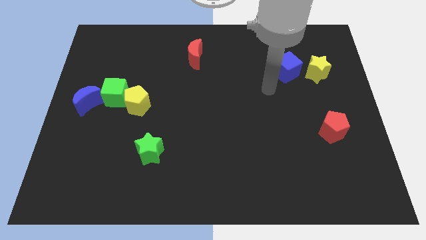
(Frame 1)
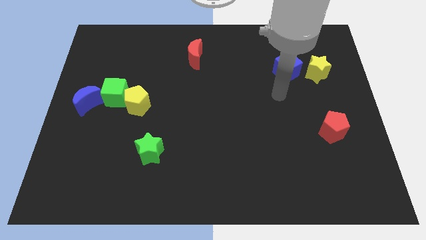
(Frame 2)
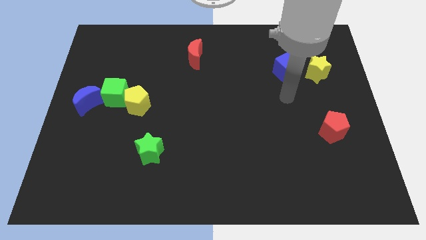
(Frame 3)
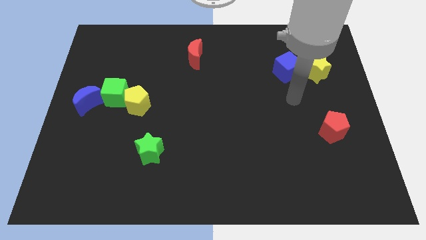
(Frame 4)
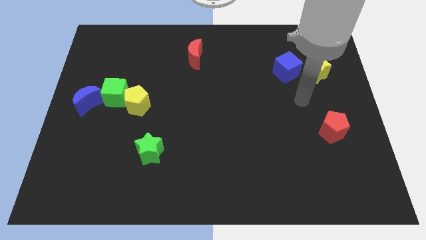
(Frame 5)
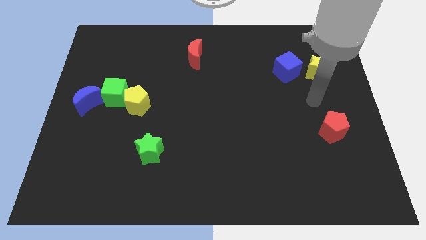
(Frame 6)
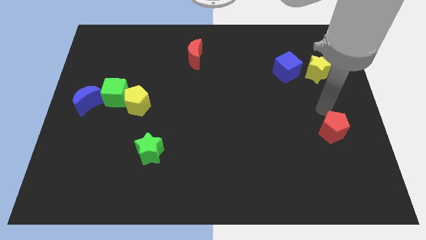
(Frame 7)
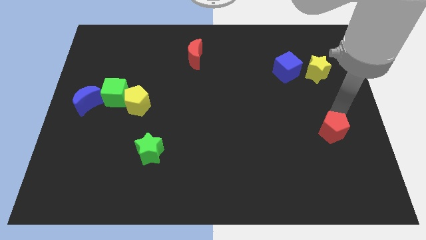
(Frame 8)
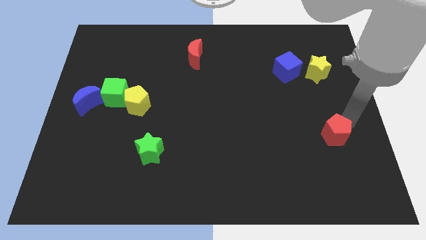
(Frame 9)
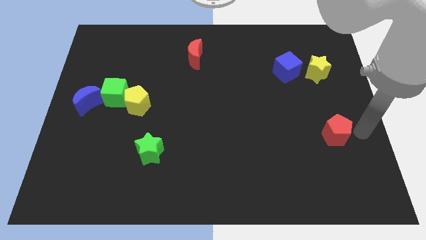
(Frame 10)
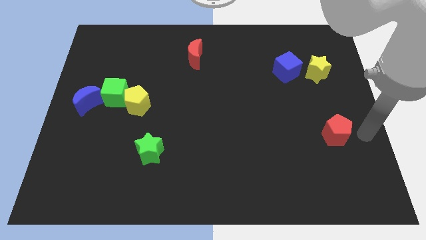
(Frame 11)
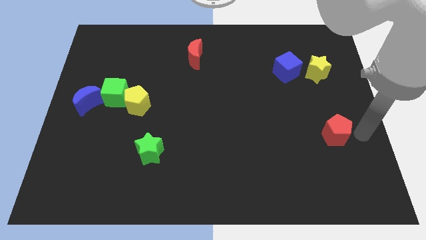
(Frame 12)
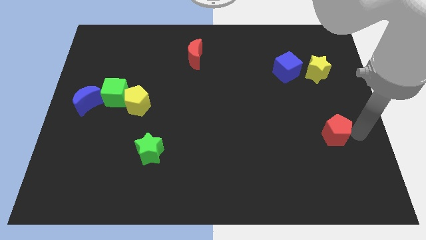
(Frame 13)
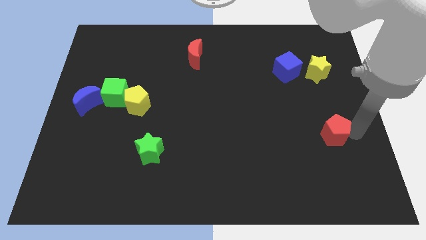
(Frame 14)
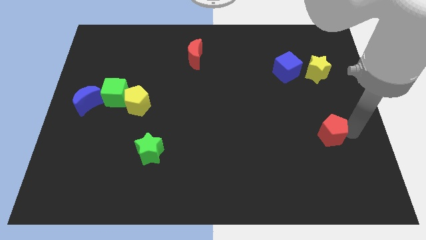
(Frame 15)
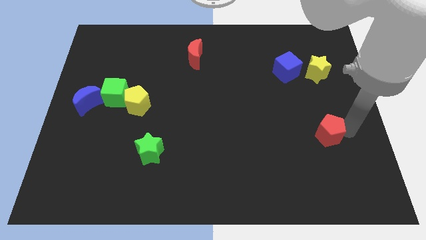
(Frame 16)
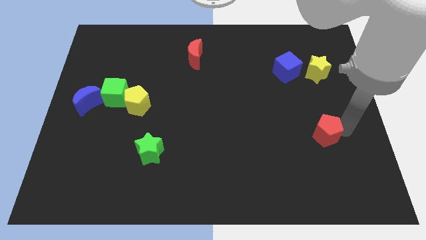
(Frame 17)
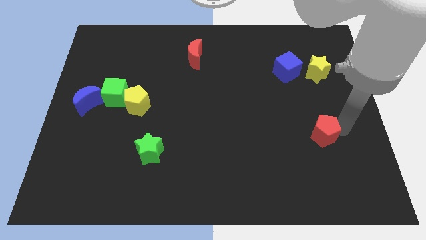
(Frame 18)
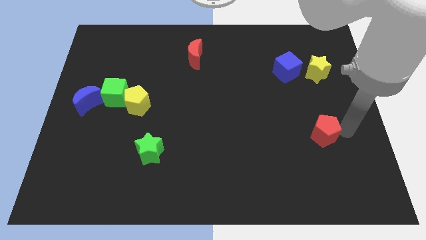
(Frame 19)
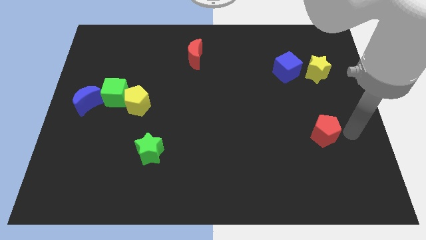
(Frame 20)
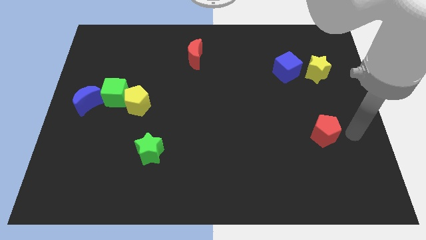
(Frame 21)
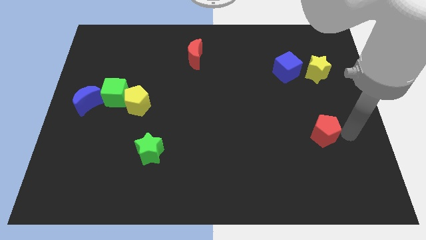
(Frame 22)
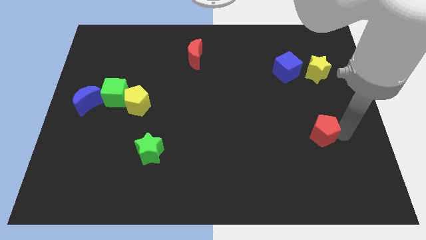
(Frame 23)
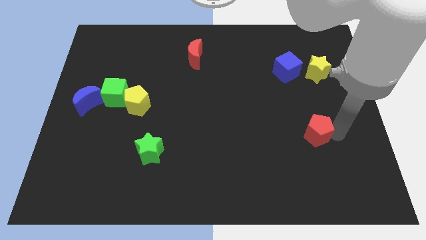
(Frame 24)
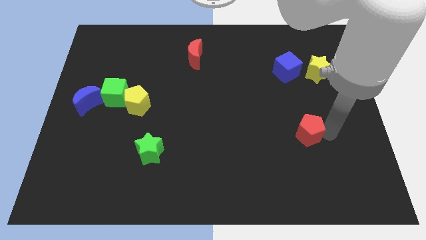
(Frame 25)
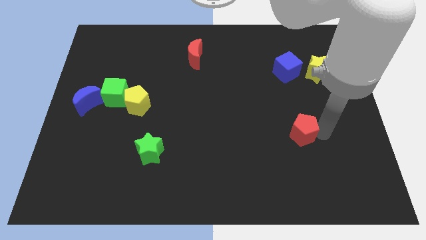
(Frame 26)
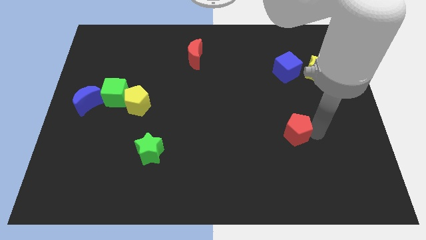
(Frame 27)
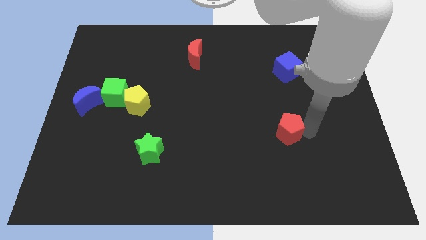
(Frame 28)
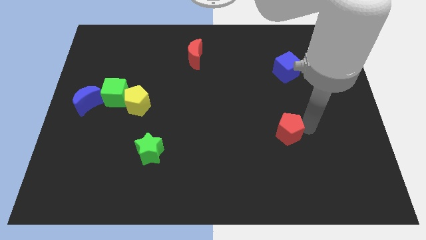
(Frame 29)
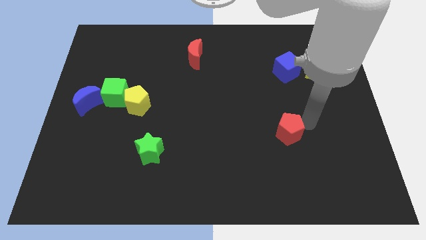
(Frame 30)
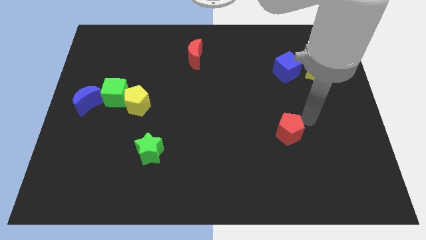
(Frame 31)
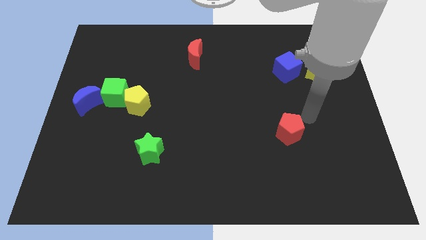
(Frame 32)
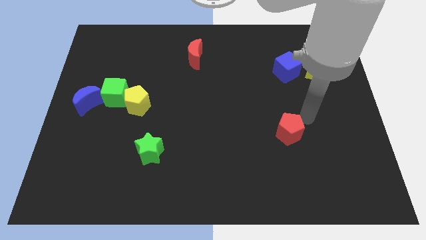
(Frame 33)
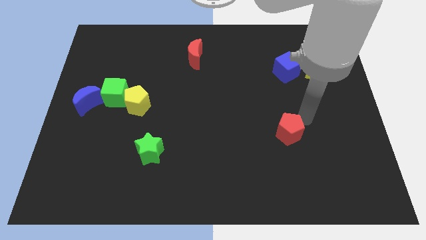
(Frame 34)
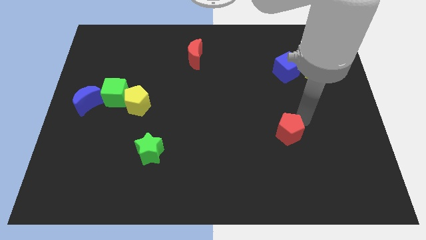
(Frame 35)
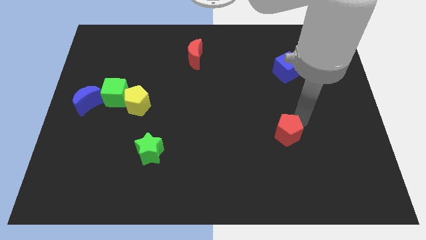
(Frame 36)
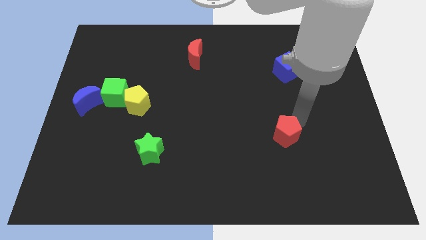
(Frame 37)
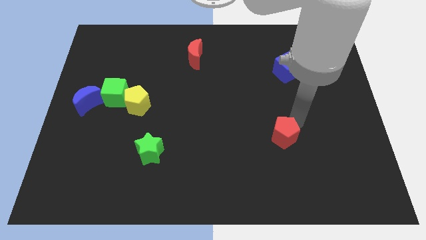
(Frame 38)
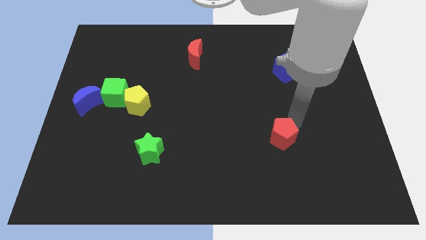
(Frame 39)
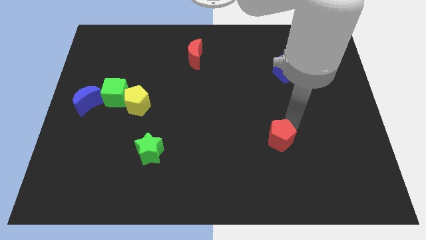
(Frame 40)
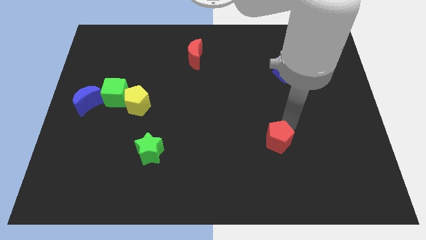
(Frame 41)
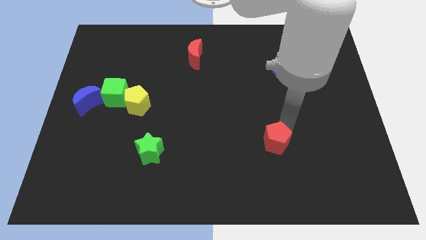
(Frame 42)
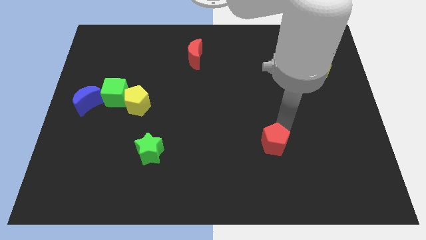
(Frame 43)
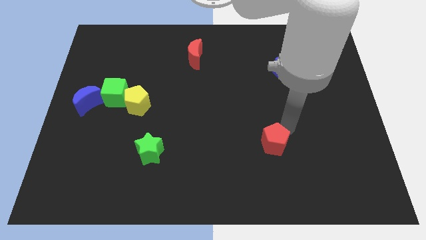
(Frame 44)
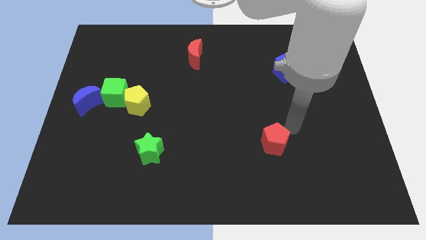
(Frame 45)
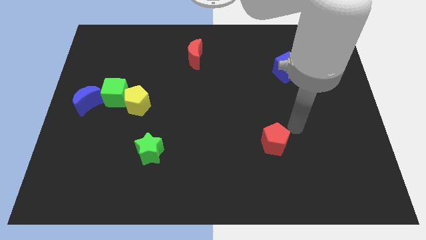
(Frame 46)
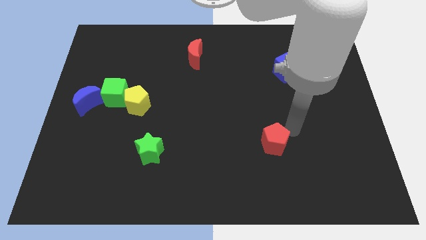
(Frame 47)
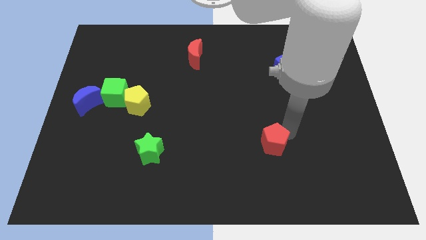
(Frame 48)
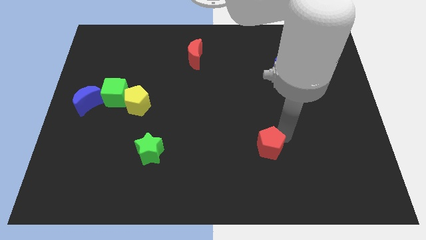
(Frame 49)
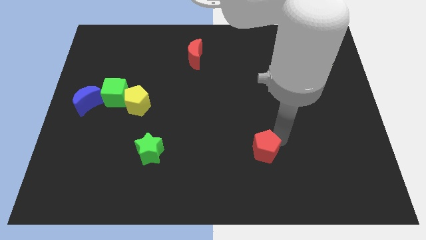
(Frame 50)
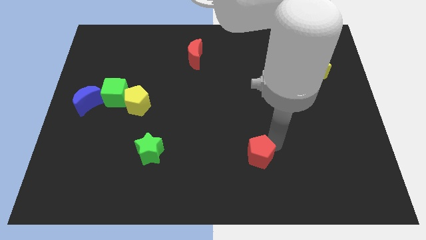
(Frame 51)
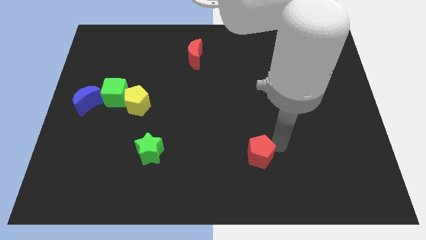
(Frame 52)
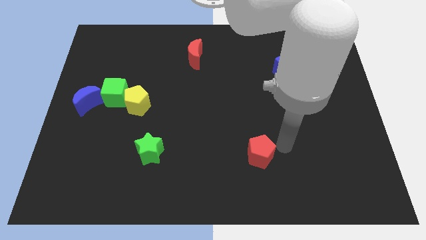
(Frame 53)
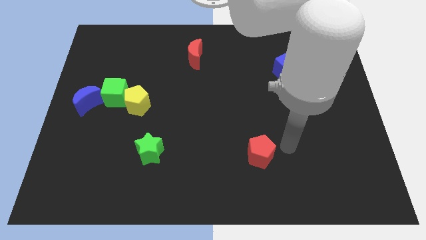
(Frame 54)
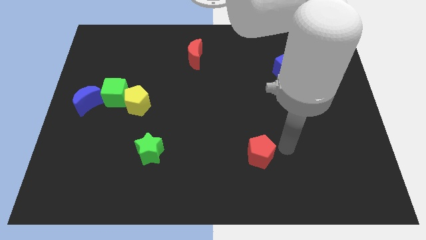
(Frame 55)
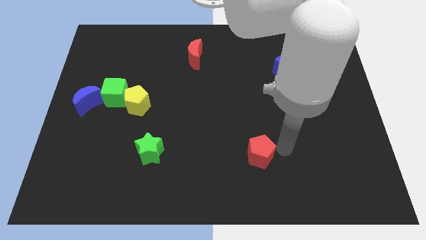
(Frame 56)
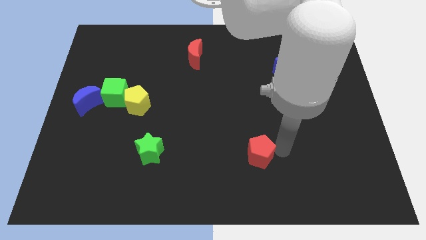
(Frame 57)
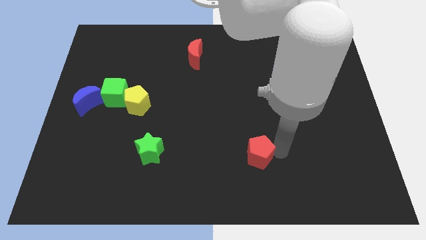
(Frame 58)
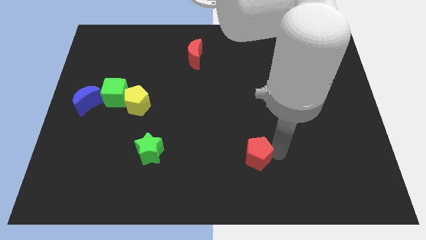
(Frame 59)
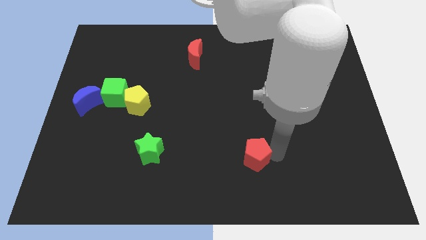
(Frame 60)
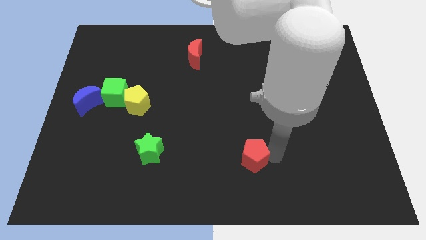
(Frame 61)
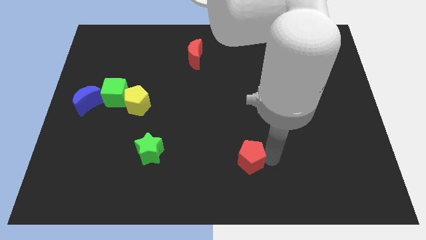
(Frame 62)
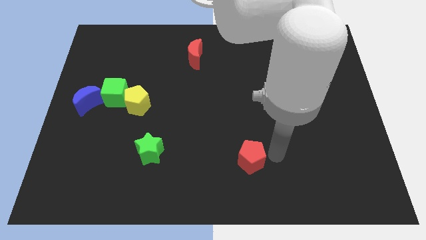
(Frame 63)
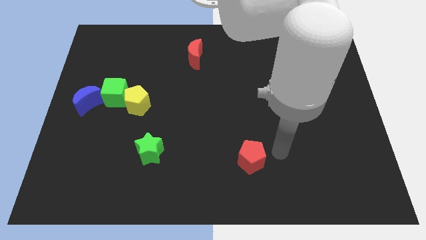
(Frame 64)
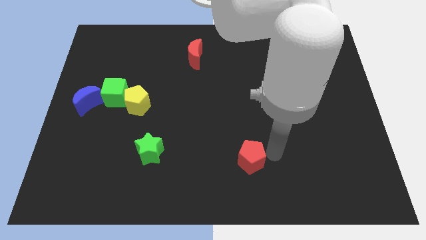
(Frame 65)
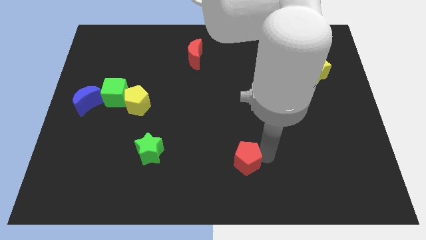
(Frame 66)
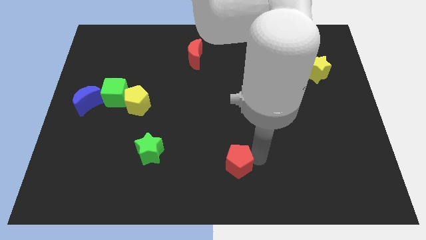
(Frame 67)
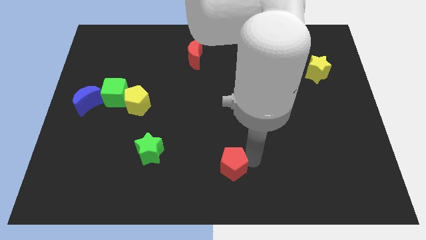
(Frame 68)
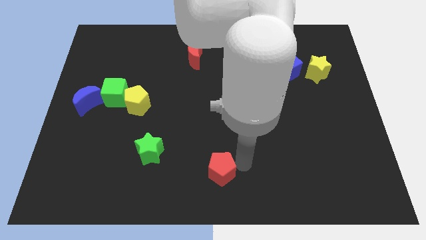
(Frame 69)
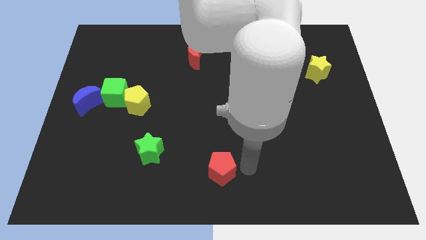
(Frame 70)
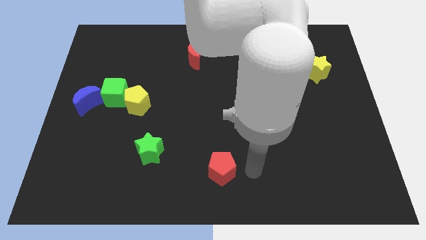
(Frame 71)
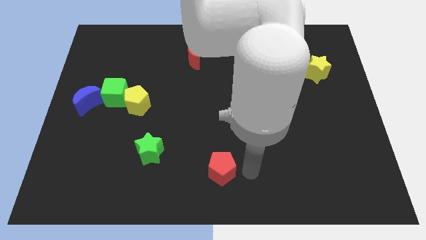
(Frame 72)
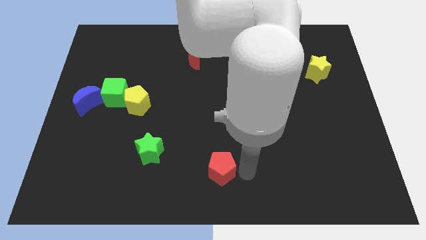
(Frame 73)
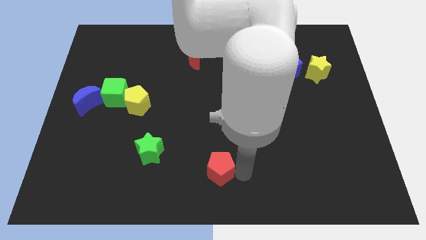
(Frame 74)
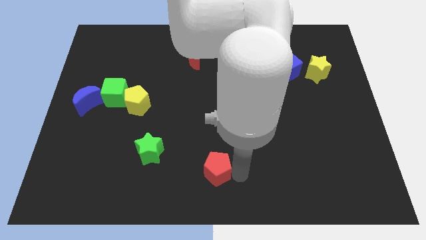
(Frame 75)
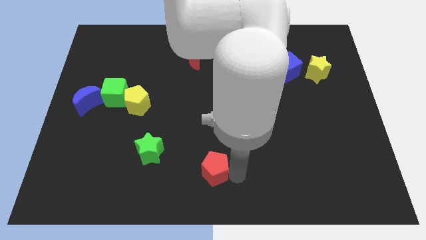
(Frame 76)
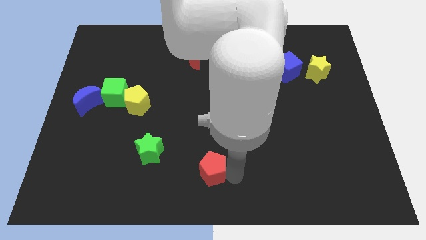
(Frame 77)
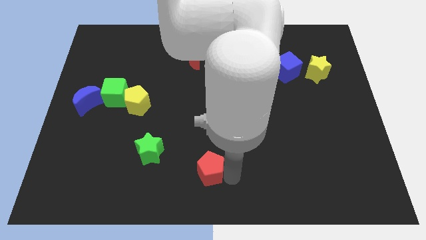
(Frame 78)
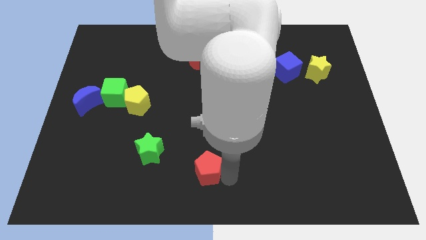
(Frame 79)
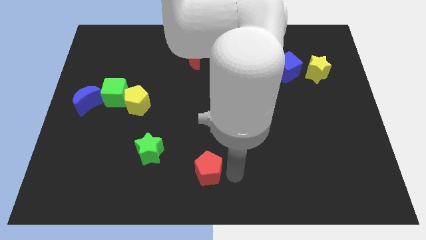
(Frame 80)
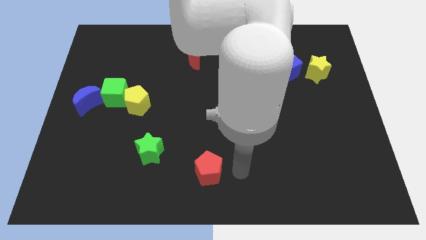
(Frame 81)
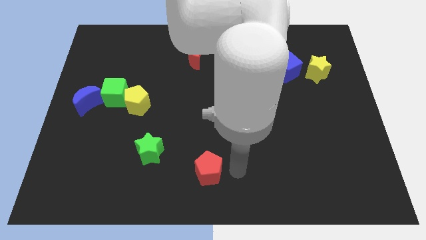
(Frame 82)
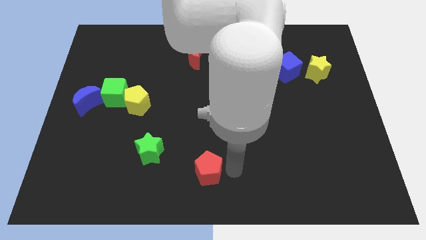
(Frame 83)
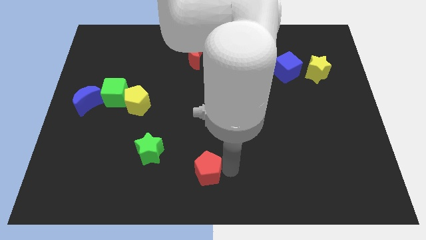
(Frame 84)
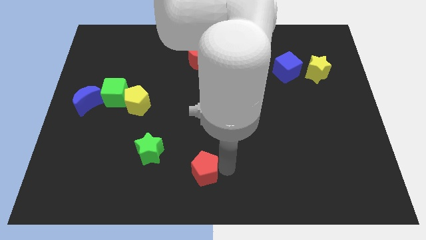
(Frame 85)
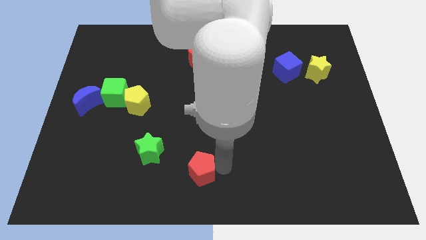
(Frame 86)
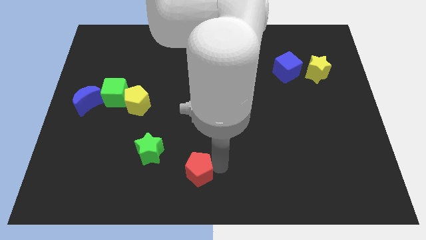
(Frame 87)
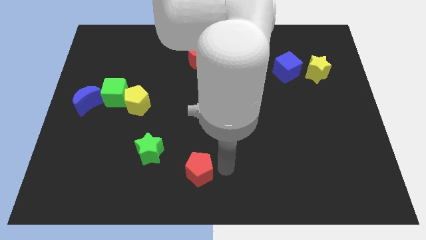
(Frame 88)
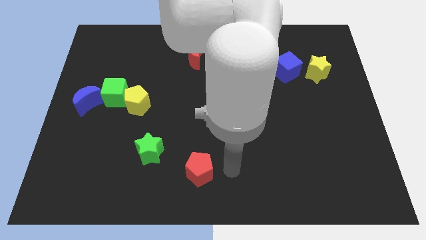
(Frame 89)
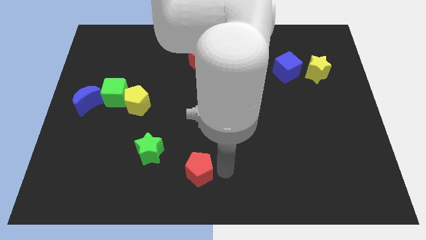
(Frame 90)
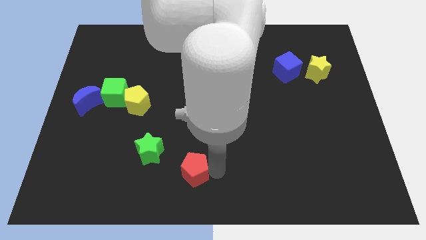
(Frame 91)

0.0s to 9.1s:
slide the red pentagon to the bottom right of the green star
